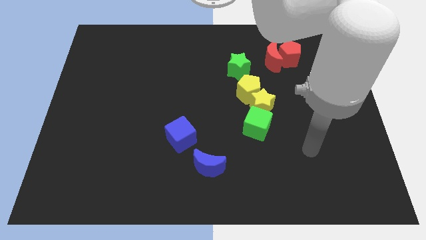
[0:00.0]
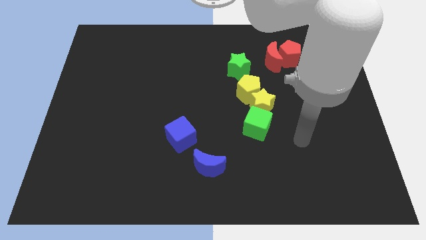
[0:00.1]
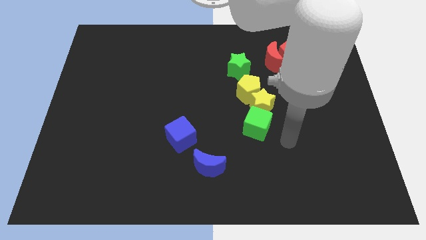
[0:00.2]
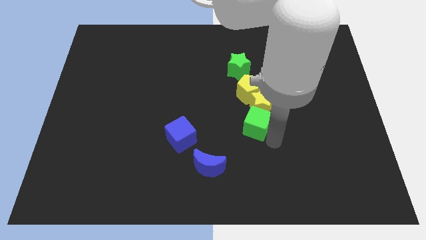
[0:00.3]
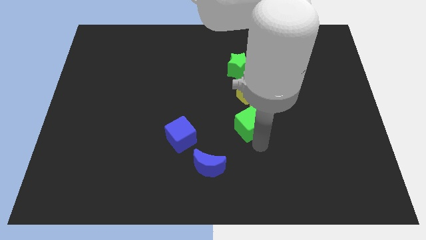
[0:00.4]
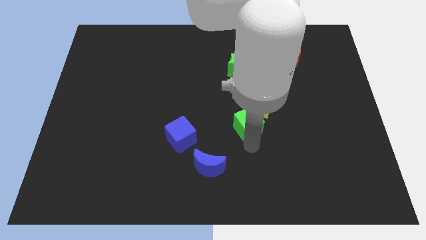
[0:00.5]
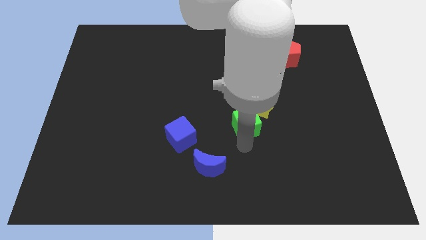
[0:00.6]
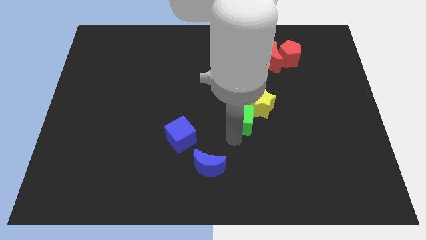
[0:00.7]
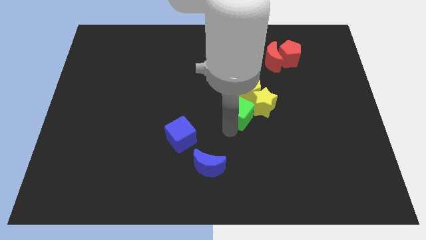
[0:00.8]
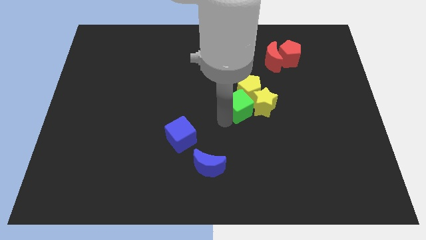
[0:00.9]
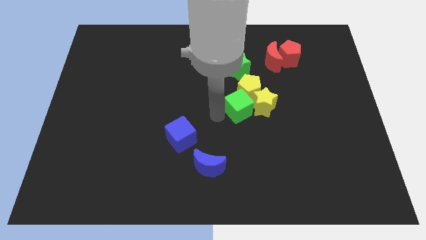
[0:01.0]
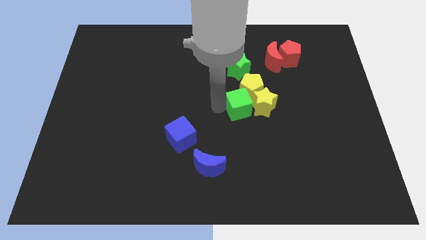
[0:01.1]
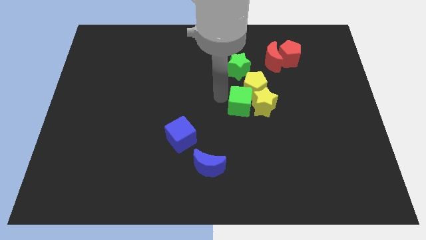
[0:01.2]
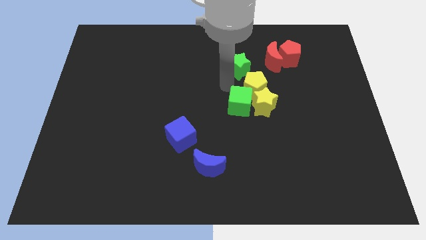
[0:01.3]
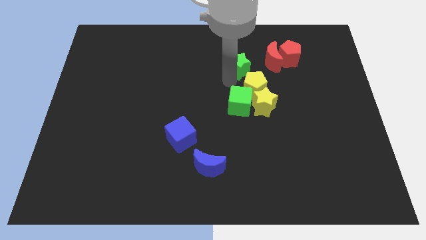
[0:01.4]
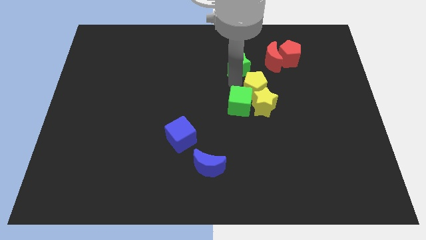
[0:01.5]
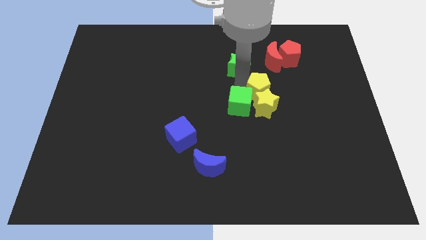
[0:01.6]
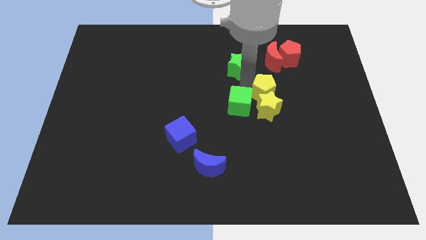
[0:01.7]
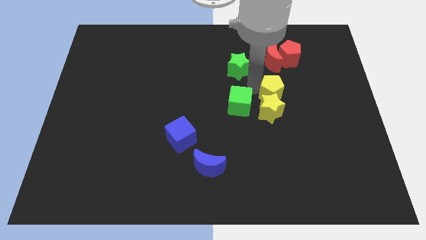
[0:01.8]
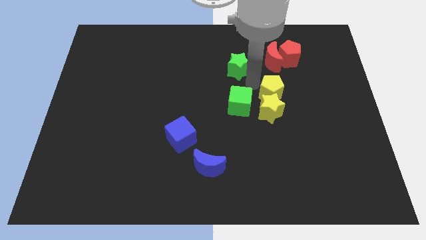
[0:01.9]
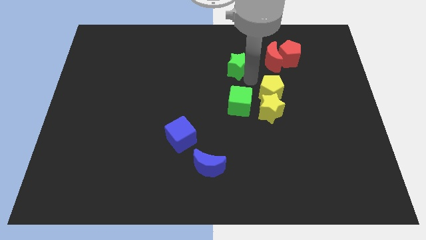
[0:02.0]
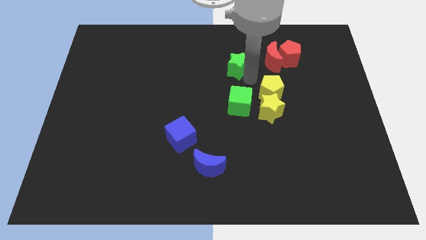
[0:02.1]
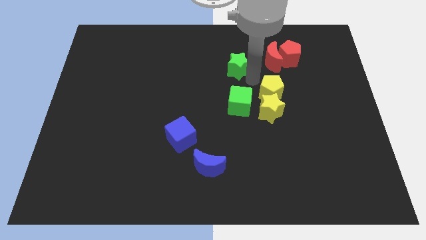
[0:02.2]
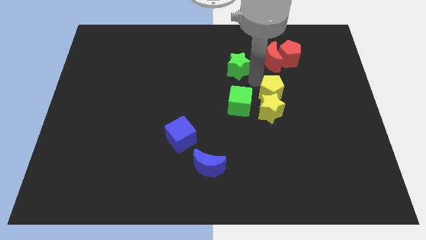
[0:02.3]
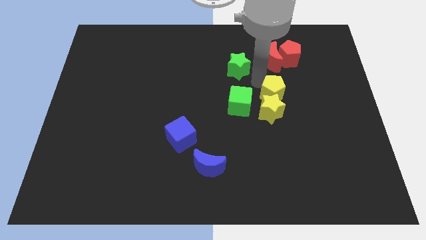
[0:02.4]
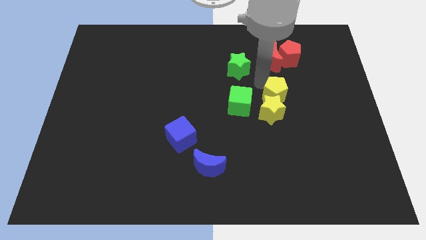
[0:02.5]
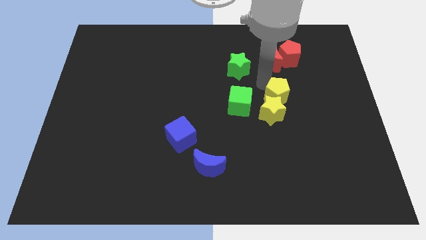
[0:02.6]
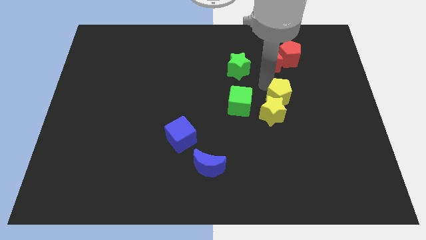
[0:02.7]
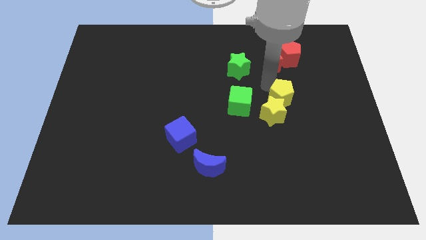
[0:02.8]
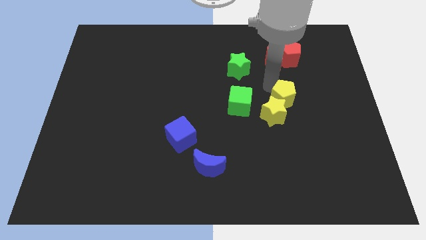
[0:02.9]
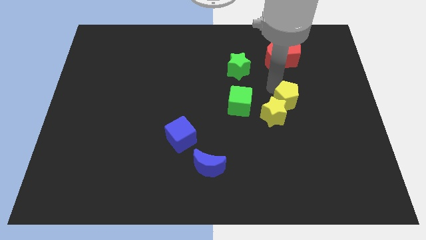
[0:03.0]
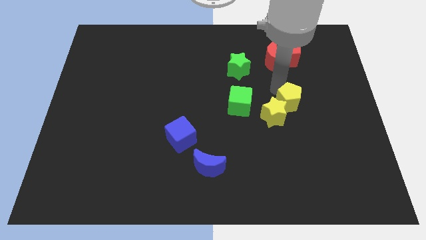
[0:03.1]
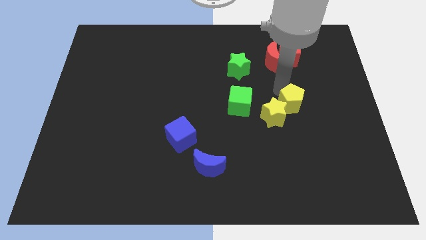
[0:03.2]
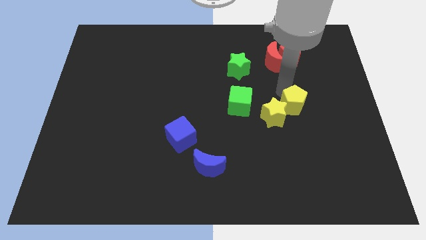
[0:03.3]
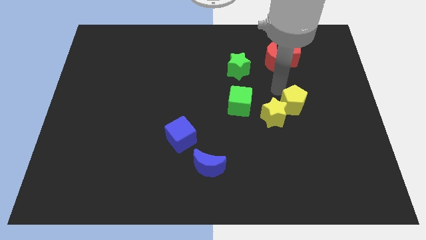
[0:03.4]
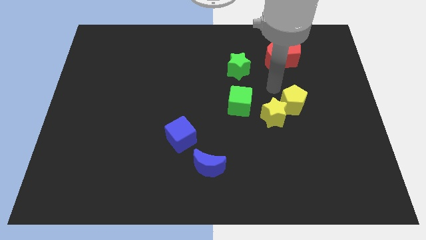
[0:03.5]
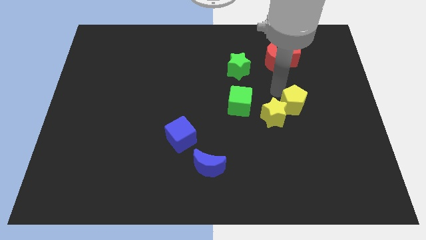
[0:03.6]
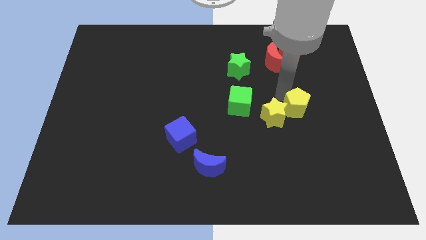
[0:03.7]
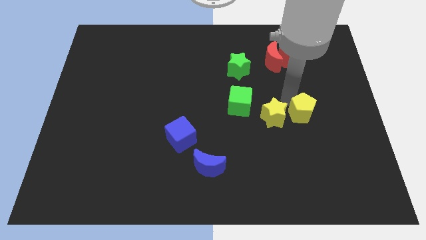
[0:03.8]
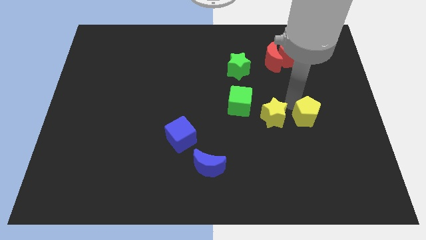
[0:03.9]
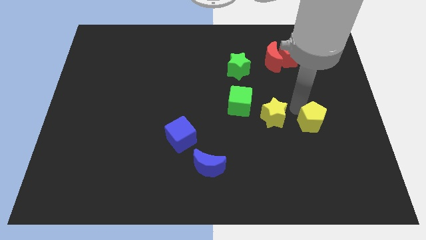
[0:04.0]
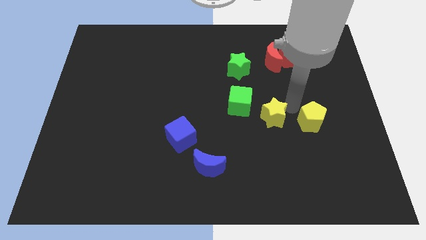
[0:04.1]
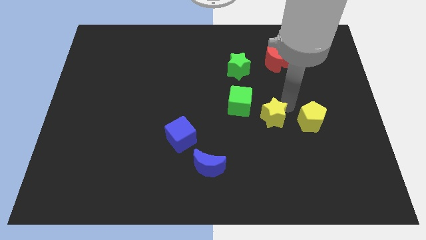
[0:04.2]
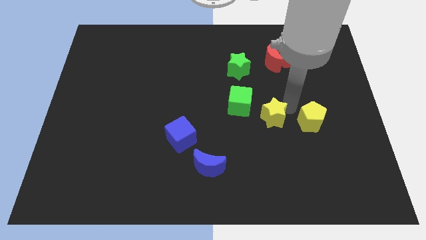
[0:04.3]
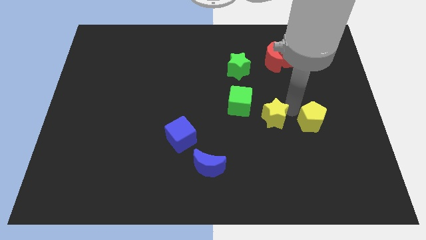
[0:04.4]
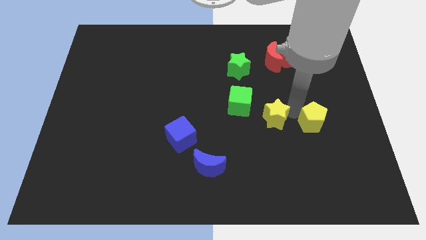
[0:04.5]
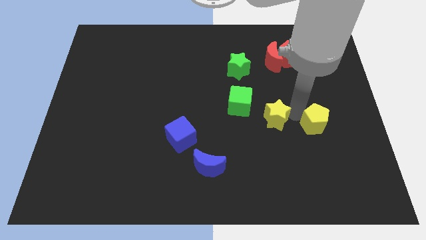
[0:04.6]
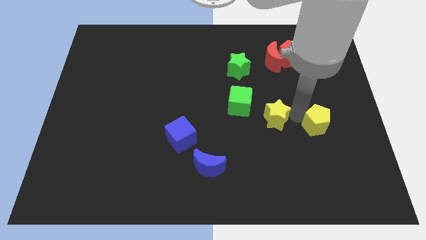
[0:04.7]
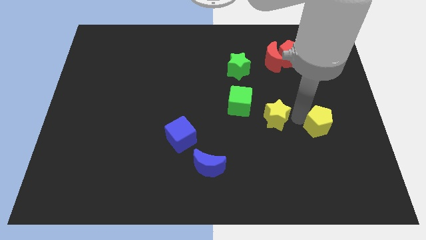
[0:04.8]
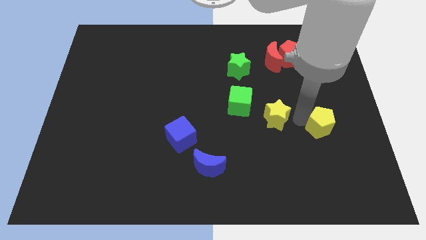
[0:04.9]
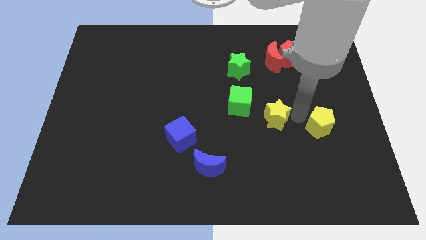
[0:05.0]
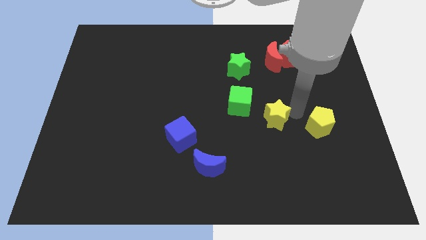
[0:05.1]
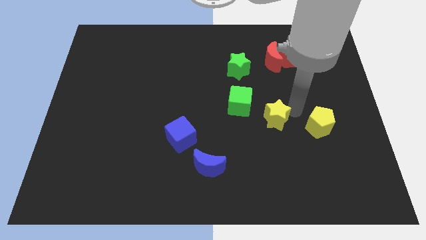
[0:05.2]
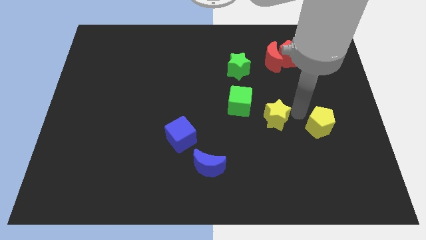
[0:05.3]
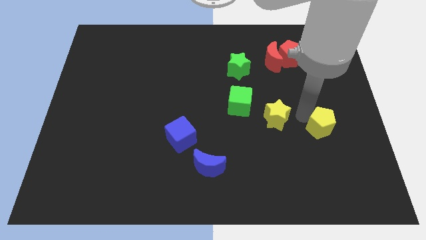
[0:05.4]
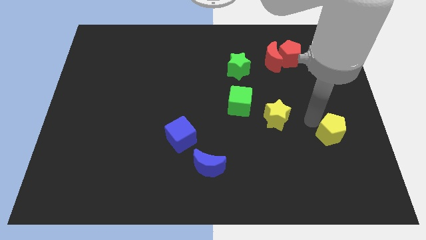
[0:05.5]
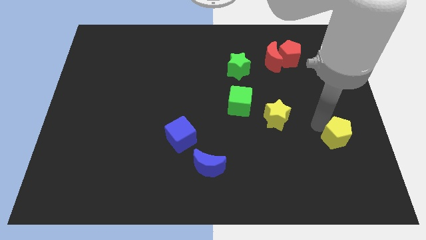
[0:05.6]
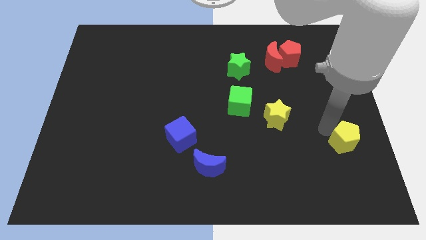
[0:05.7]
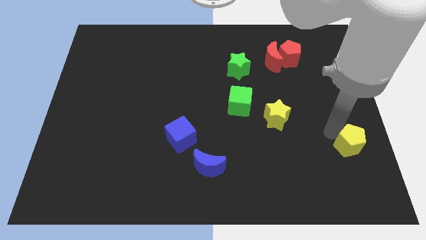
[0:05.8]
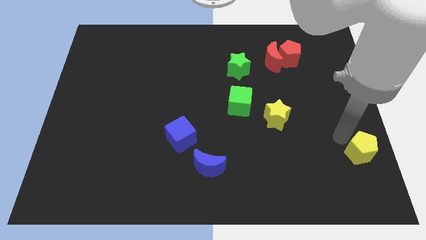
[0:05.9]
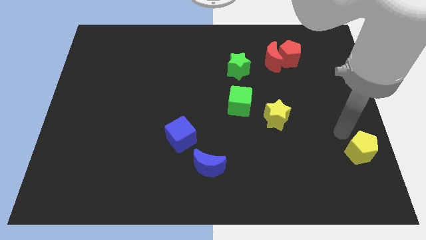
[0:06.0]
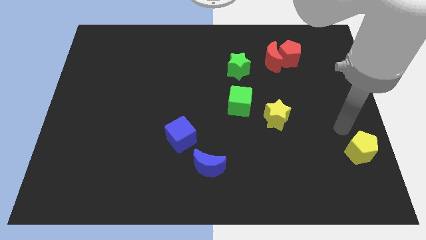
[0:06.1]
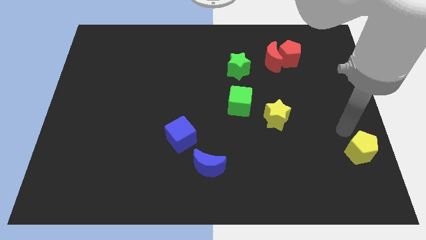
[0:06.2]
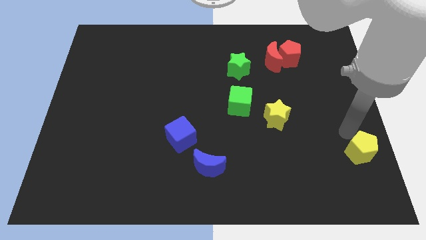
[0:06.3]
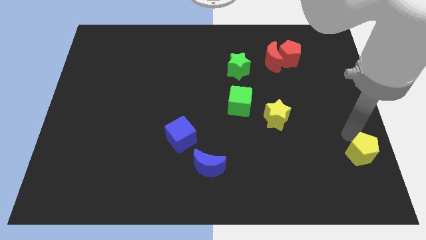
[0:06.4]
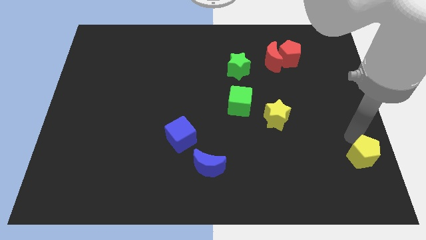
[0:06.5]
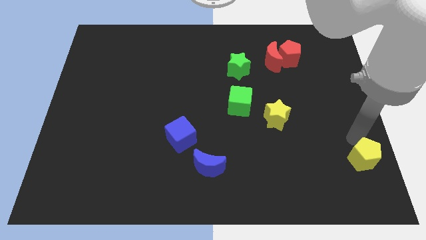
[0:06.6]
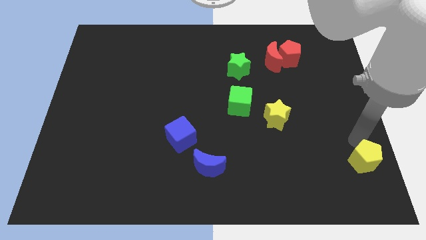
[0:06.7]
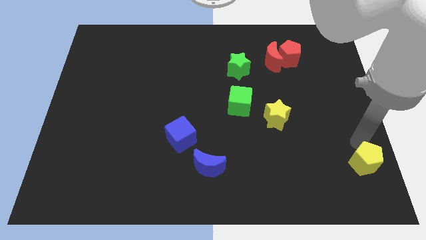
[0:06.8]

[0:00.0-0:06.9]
slide the yellow pentagon to the bottom right

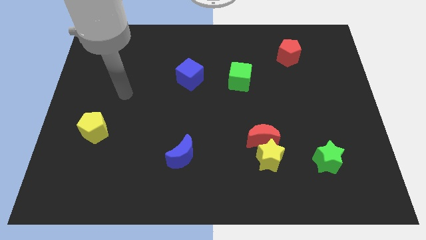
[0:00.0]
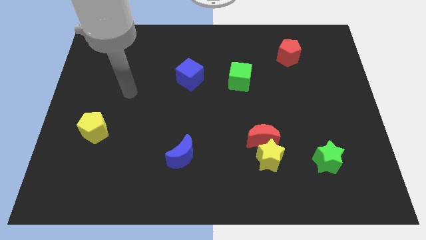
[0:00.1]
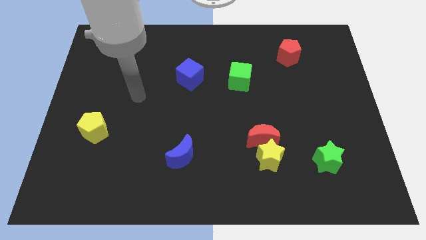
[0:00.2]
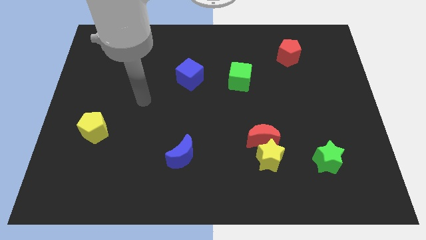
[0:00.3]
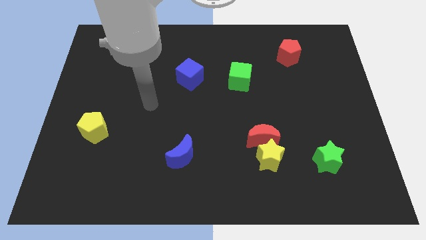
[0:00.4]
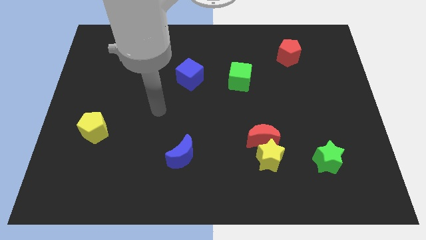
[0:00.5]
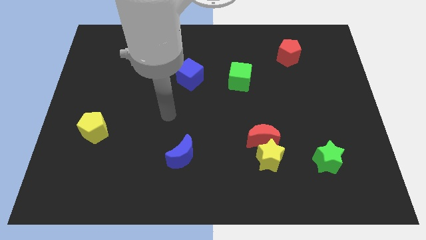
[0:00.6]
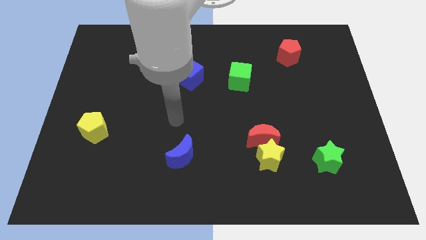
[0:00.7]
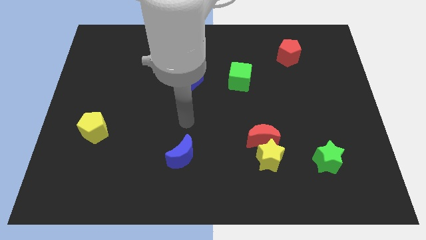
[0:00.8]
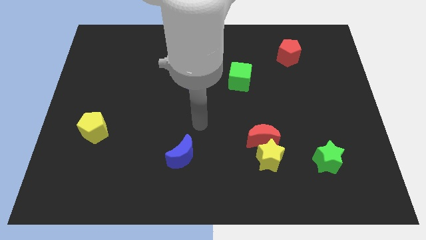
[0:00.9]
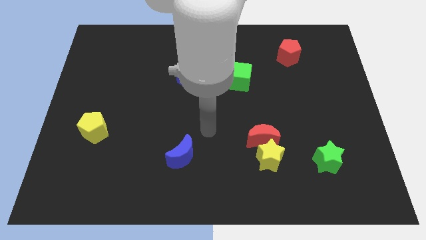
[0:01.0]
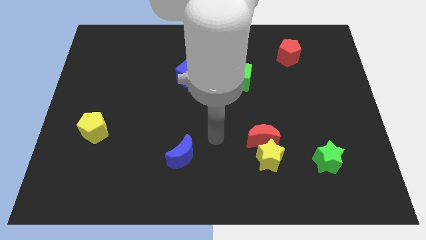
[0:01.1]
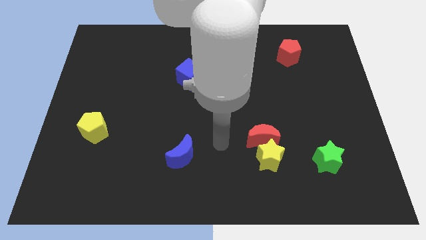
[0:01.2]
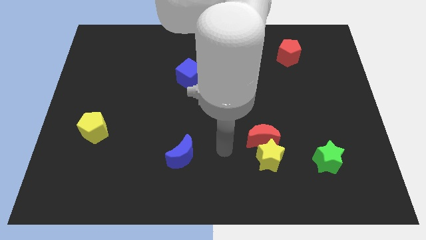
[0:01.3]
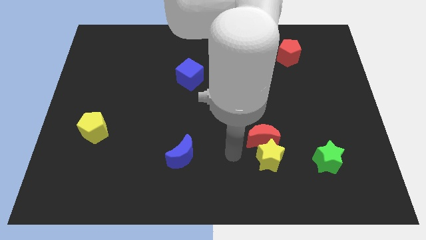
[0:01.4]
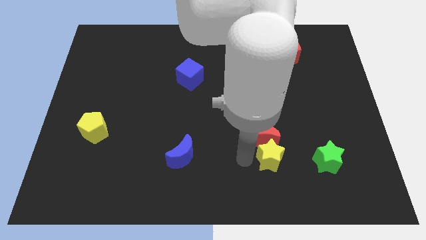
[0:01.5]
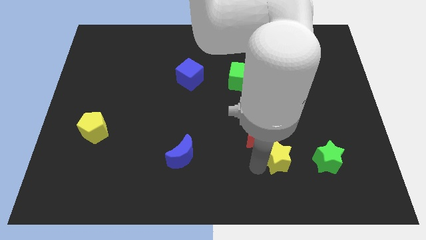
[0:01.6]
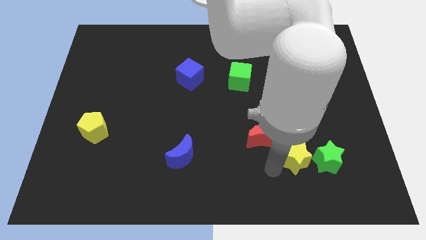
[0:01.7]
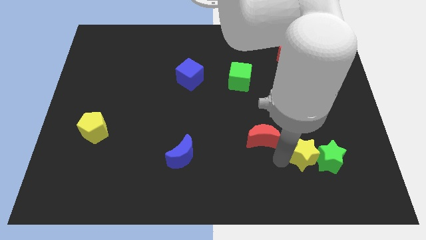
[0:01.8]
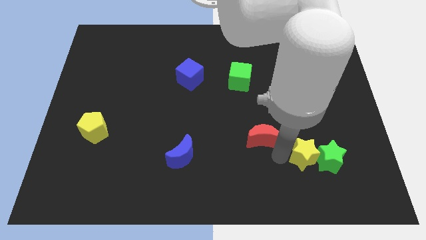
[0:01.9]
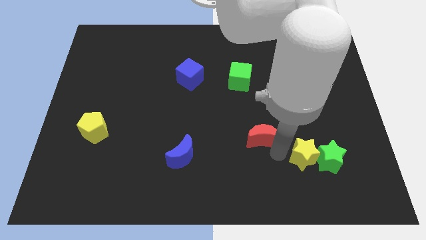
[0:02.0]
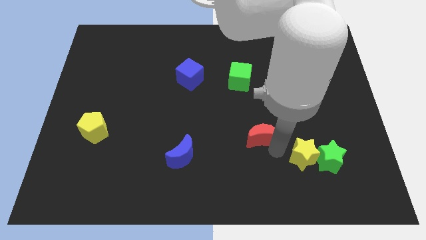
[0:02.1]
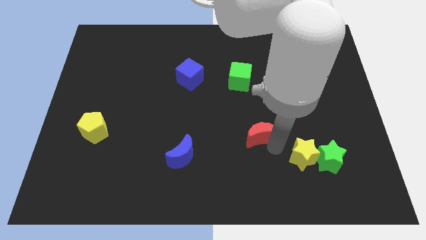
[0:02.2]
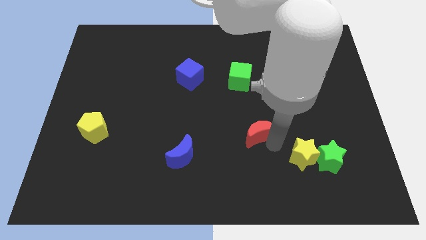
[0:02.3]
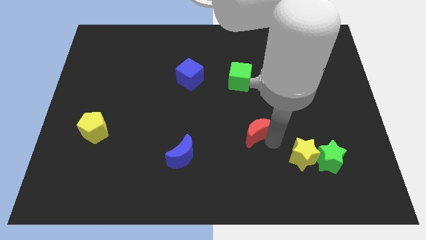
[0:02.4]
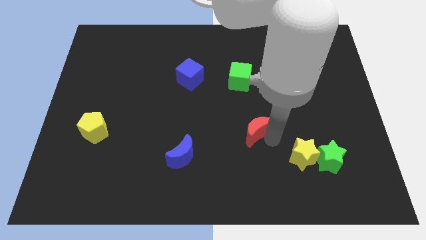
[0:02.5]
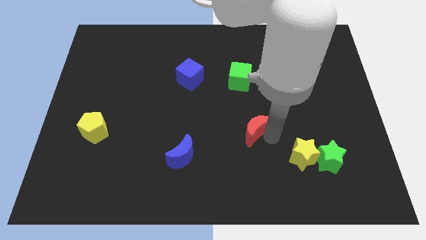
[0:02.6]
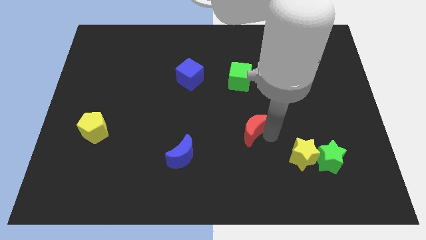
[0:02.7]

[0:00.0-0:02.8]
put the red moon to the center
